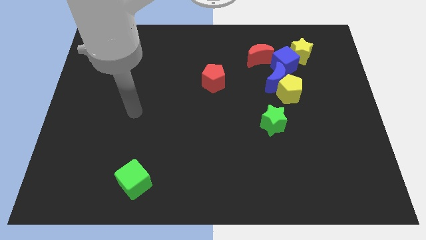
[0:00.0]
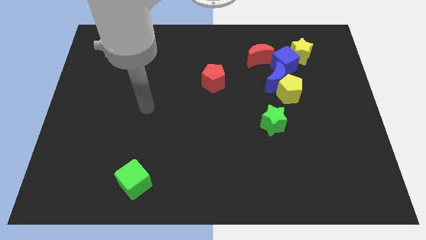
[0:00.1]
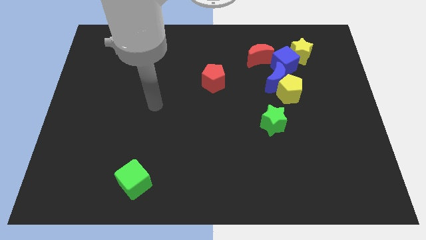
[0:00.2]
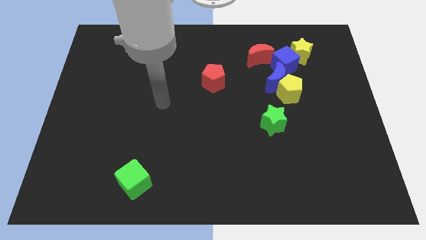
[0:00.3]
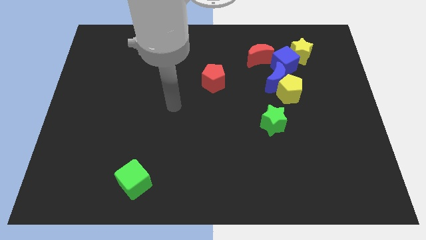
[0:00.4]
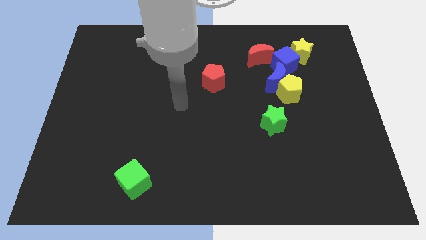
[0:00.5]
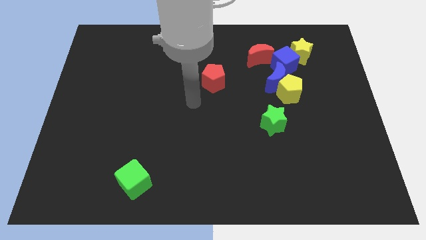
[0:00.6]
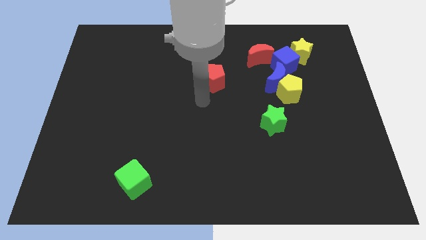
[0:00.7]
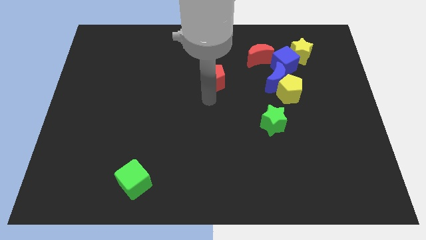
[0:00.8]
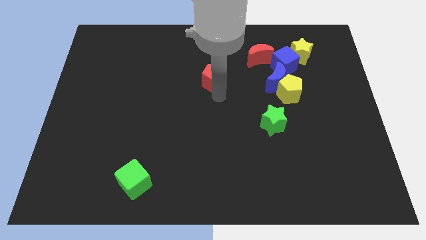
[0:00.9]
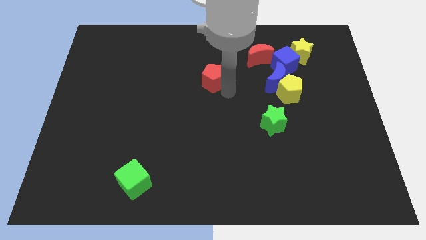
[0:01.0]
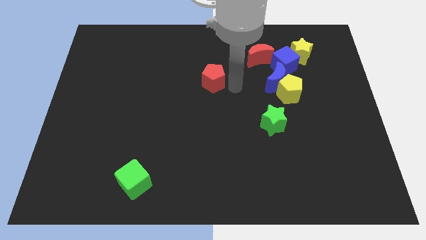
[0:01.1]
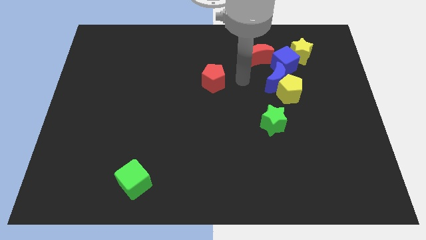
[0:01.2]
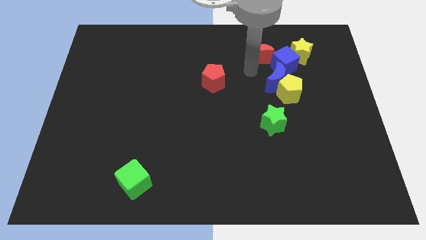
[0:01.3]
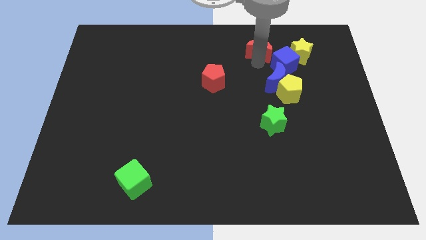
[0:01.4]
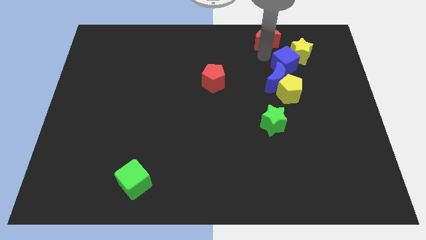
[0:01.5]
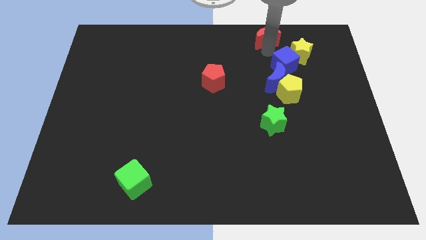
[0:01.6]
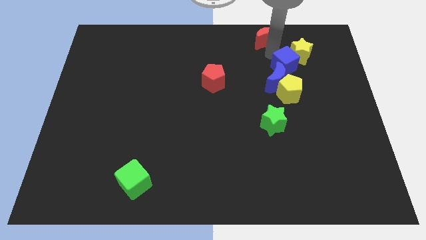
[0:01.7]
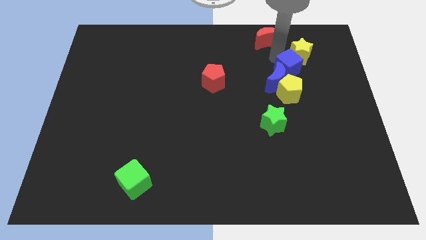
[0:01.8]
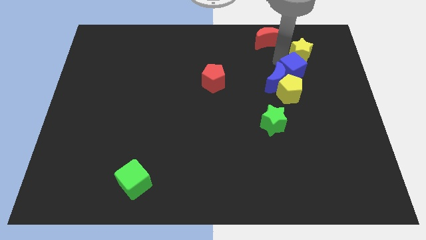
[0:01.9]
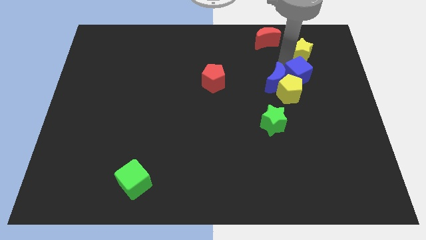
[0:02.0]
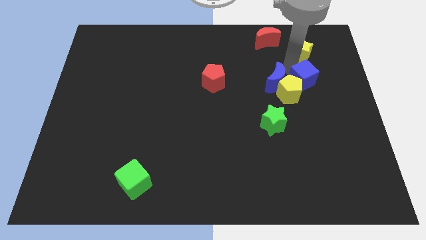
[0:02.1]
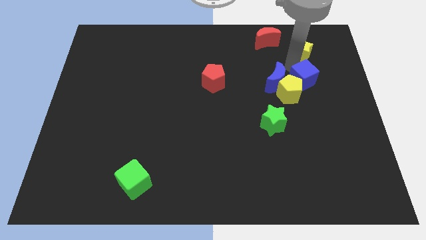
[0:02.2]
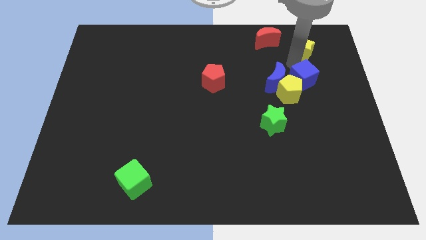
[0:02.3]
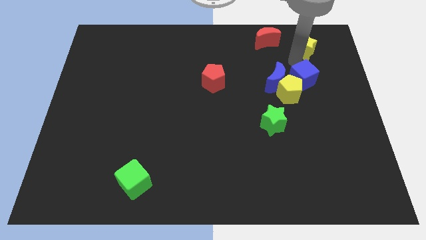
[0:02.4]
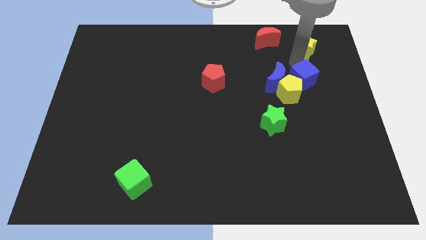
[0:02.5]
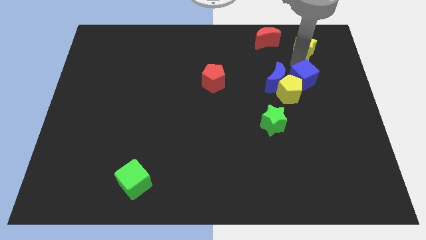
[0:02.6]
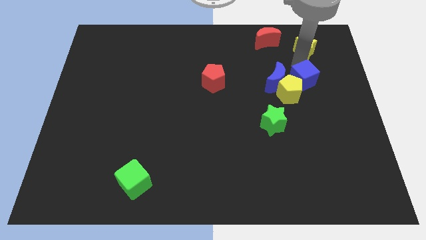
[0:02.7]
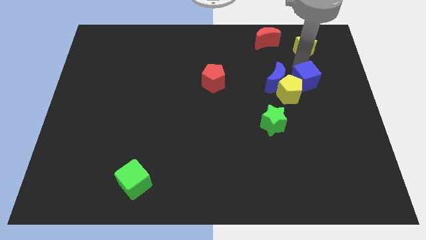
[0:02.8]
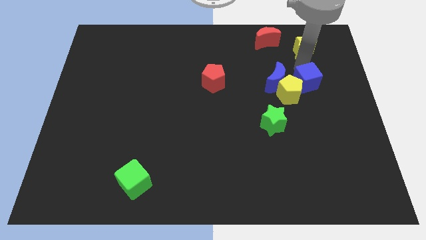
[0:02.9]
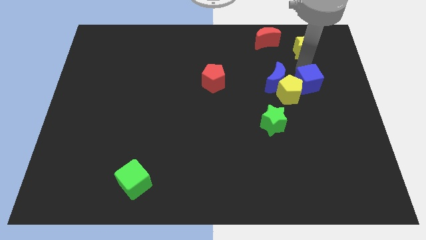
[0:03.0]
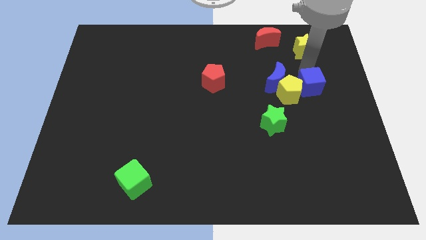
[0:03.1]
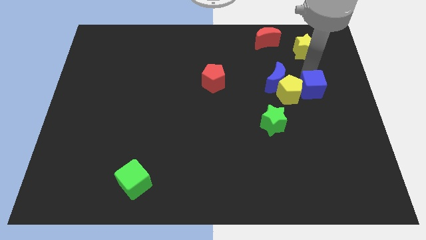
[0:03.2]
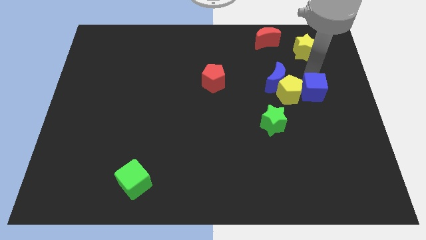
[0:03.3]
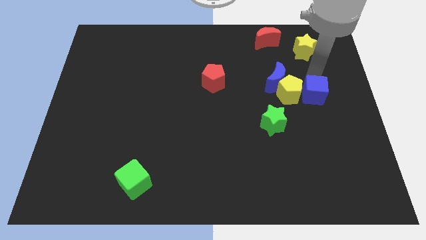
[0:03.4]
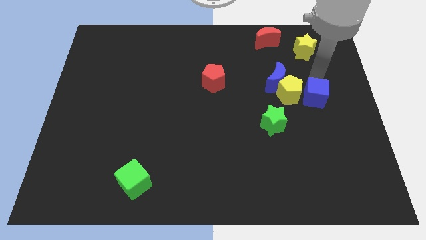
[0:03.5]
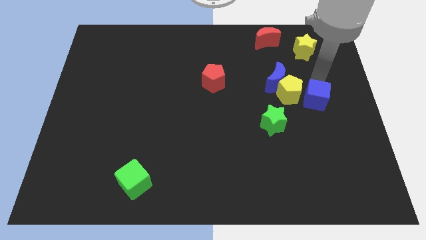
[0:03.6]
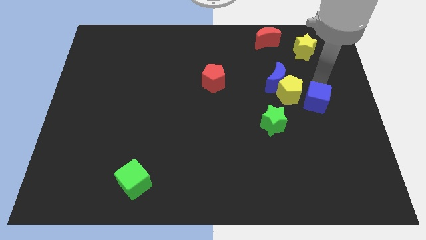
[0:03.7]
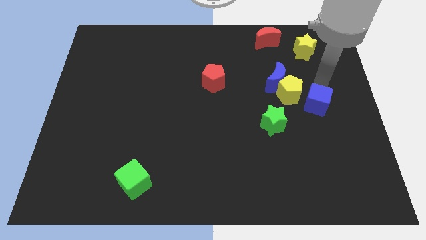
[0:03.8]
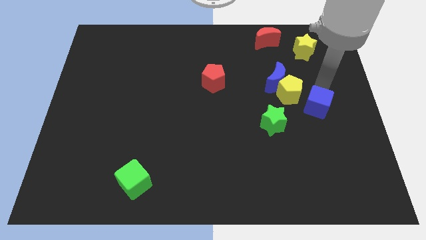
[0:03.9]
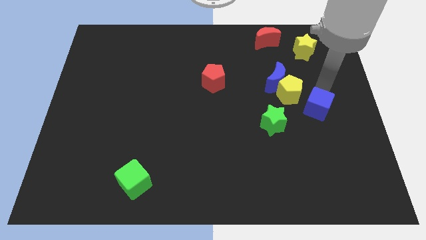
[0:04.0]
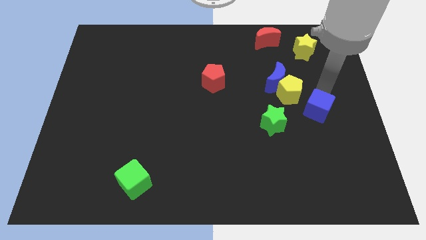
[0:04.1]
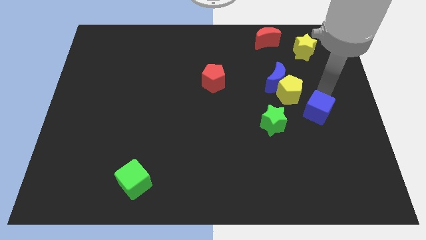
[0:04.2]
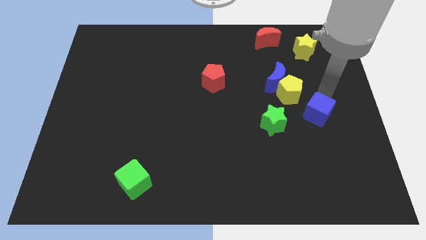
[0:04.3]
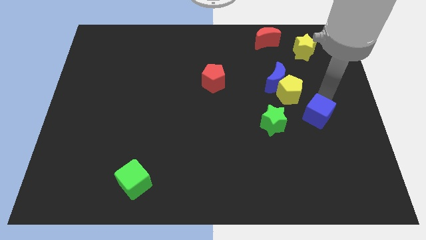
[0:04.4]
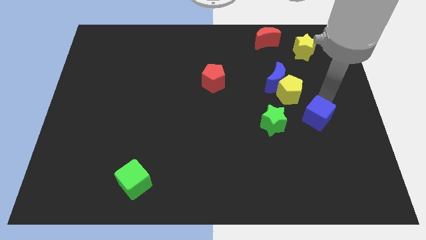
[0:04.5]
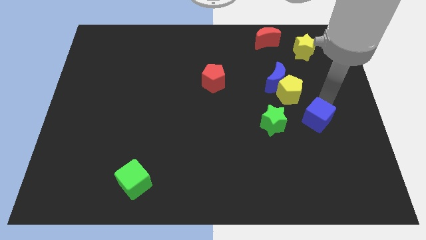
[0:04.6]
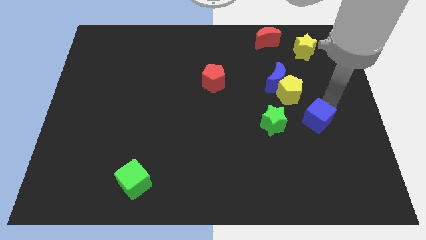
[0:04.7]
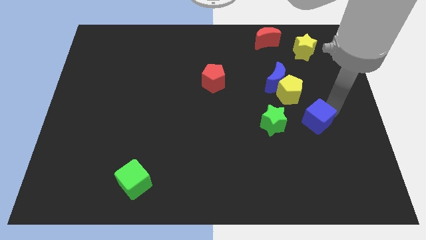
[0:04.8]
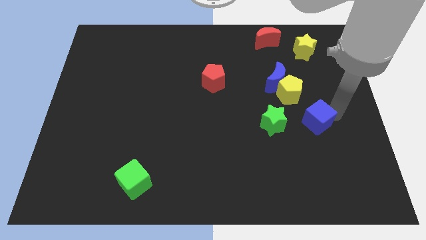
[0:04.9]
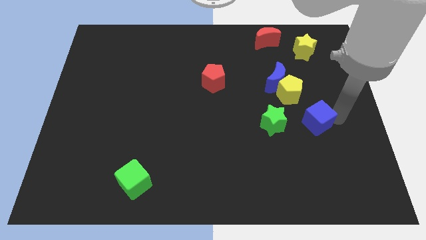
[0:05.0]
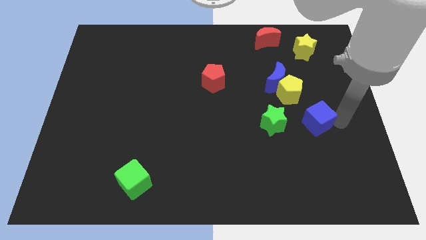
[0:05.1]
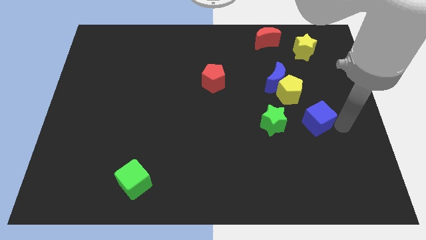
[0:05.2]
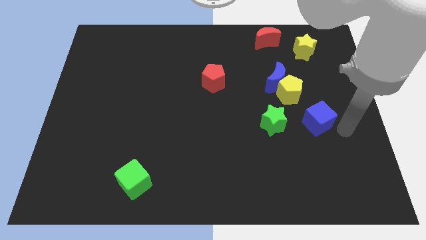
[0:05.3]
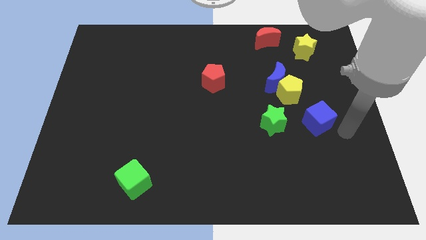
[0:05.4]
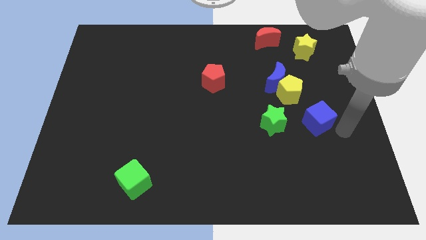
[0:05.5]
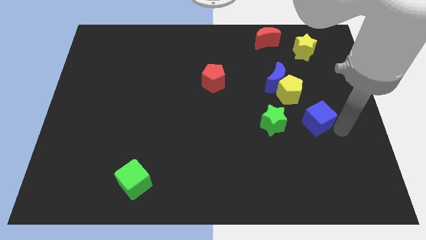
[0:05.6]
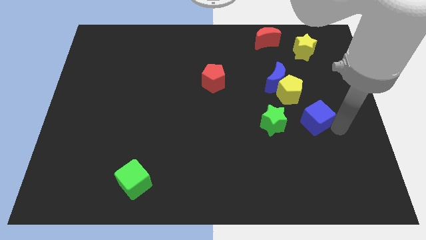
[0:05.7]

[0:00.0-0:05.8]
slide the blue cube to the bottom of the yellow pentagon

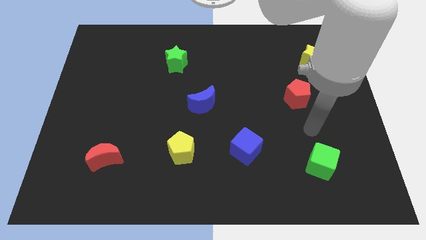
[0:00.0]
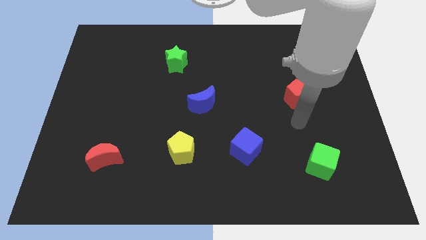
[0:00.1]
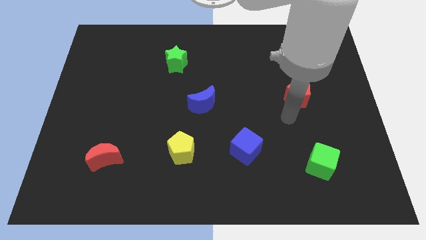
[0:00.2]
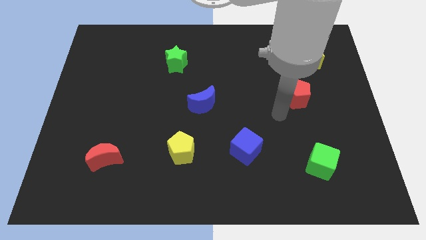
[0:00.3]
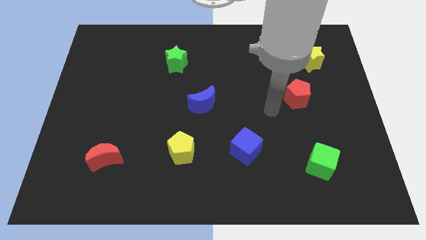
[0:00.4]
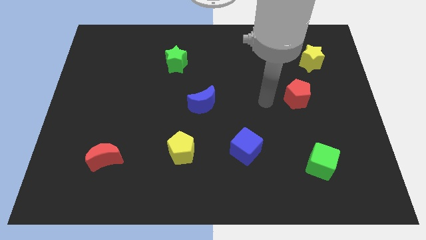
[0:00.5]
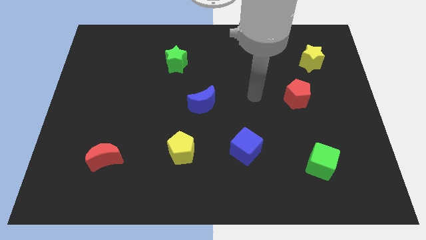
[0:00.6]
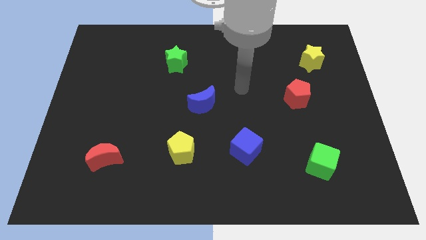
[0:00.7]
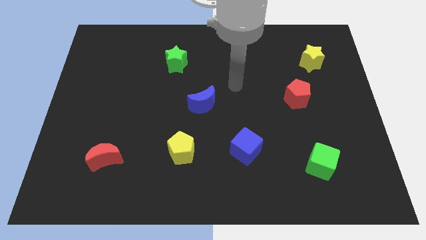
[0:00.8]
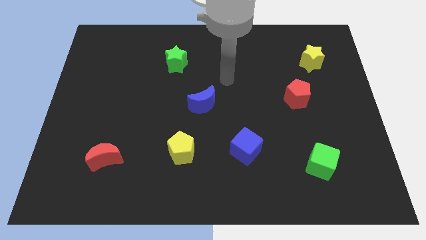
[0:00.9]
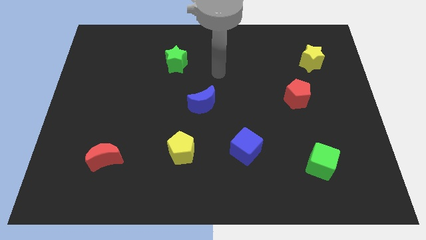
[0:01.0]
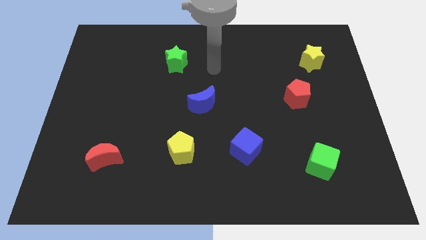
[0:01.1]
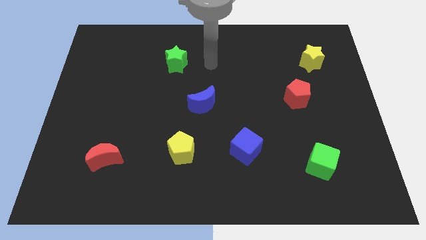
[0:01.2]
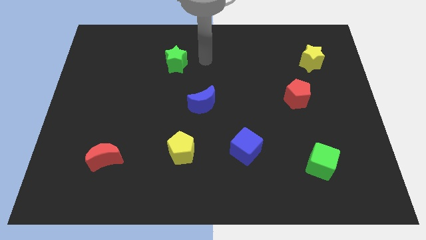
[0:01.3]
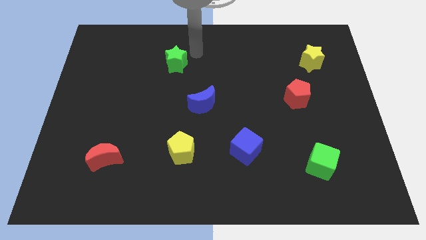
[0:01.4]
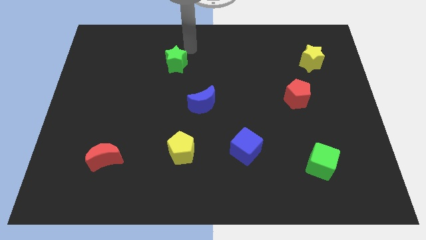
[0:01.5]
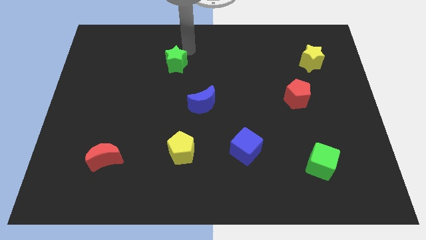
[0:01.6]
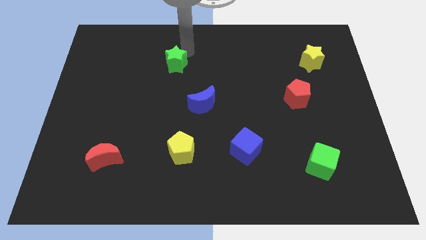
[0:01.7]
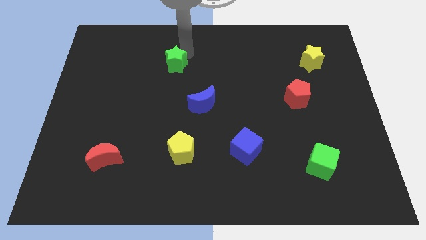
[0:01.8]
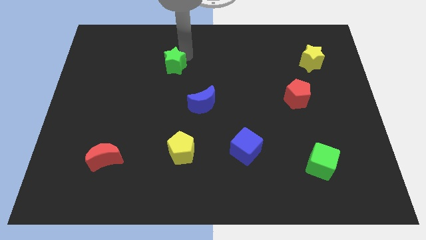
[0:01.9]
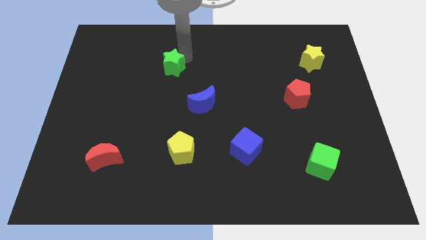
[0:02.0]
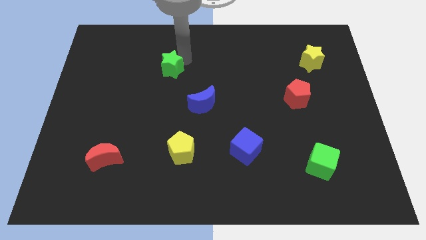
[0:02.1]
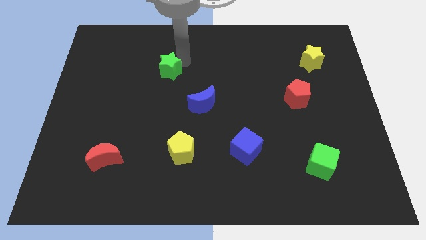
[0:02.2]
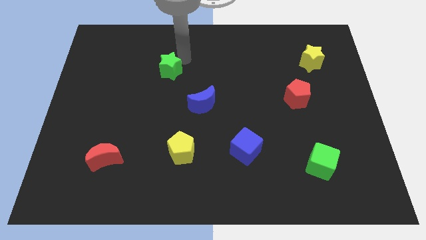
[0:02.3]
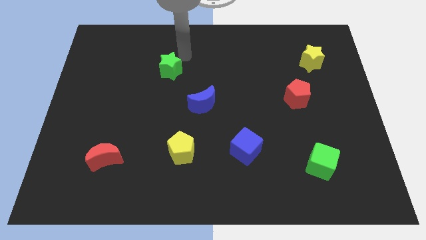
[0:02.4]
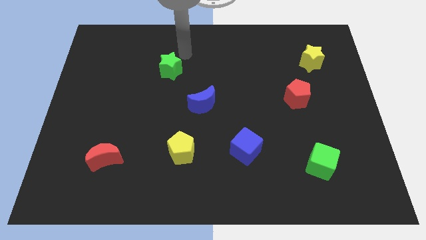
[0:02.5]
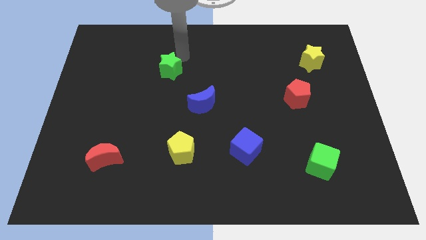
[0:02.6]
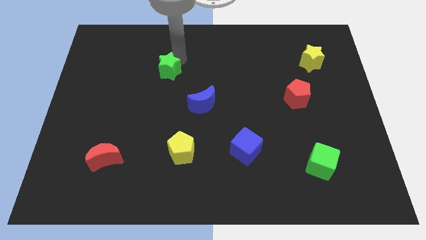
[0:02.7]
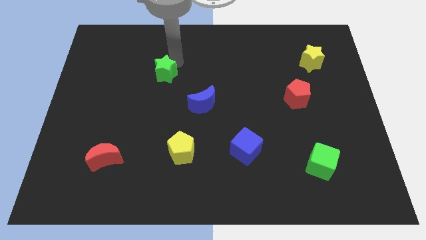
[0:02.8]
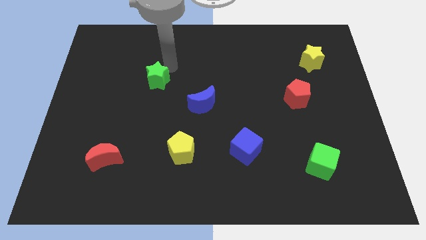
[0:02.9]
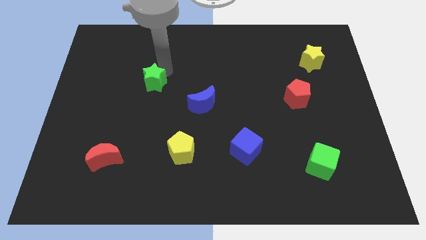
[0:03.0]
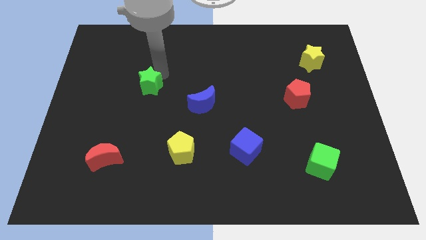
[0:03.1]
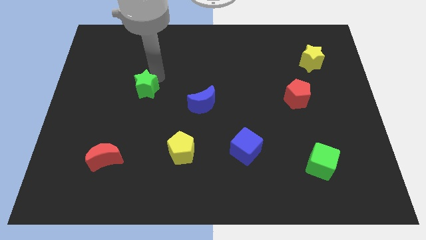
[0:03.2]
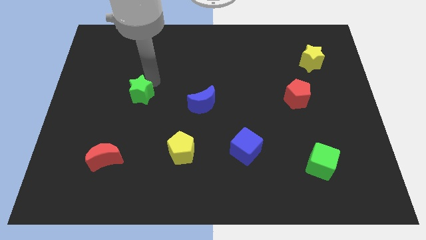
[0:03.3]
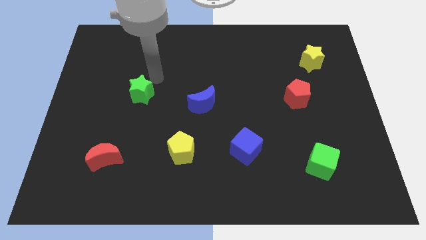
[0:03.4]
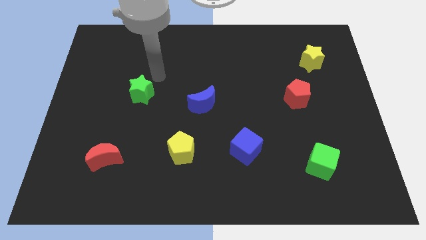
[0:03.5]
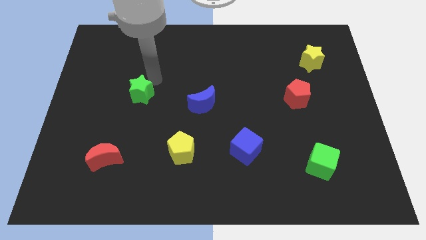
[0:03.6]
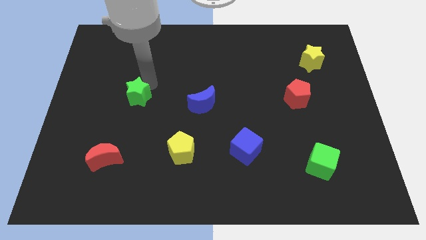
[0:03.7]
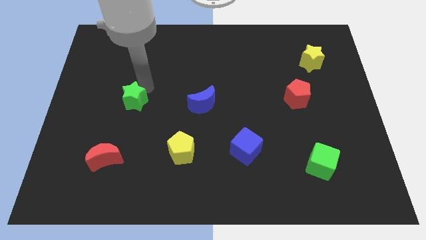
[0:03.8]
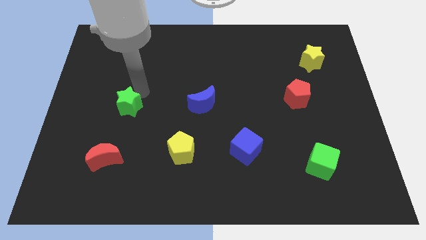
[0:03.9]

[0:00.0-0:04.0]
slide the green star to the top side of the red moon
